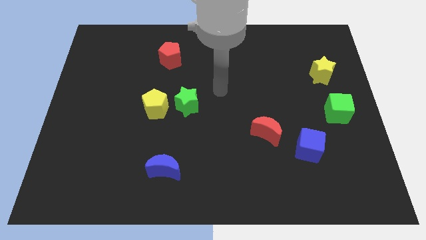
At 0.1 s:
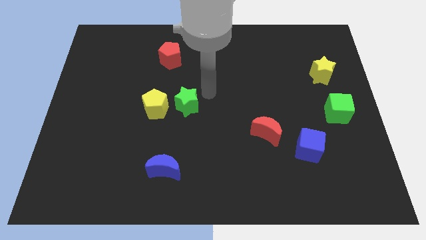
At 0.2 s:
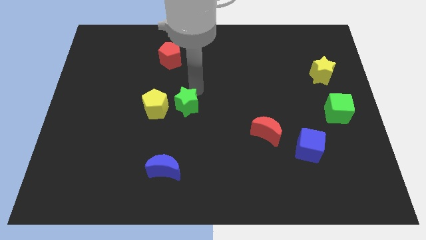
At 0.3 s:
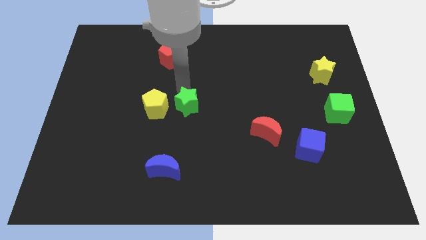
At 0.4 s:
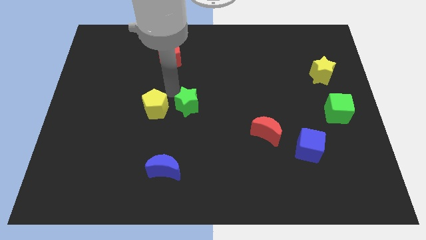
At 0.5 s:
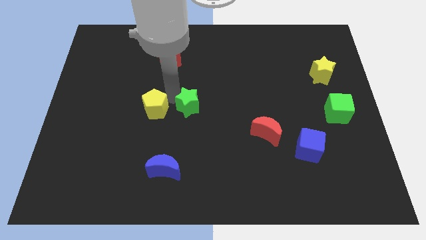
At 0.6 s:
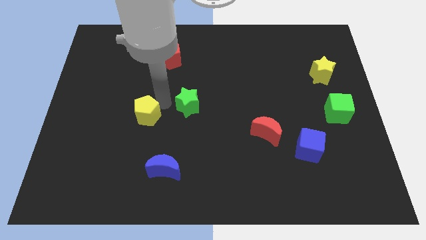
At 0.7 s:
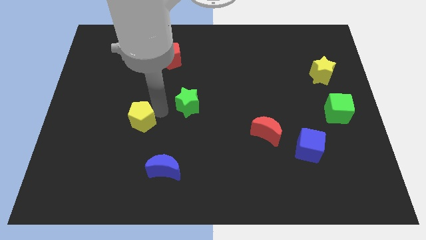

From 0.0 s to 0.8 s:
separate the green star from the yellow pentagon

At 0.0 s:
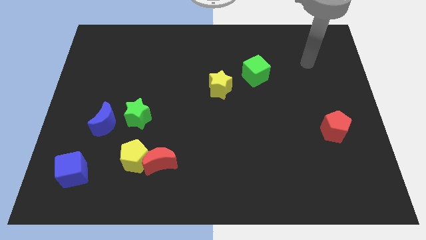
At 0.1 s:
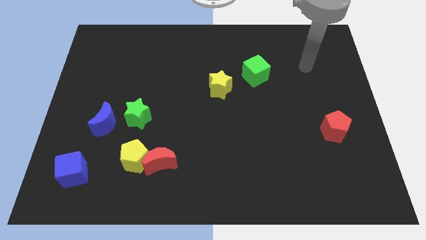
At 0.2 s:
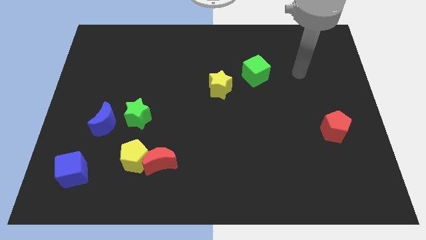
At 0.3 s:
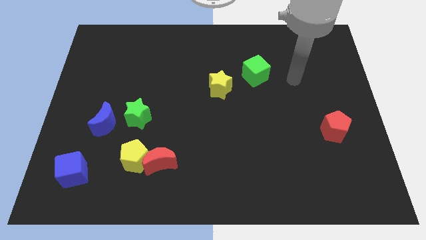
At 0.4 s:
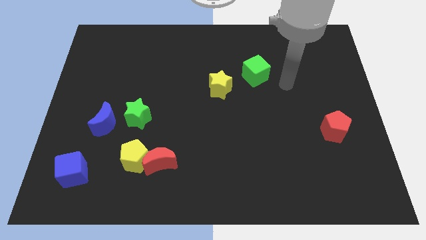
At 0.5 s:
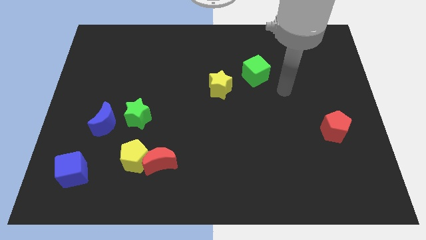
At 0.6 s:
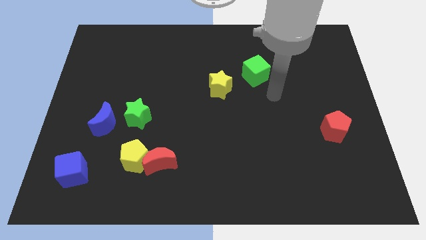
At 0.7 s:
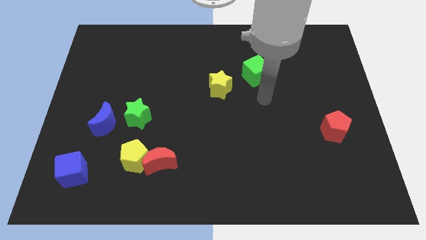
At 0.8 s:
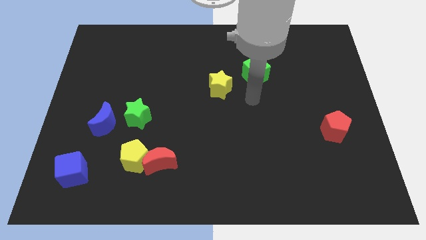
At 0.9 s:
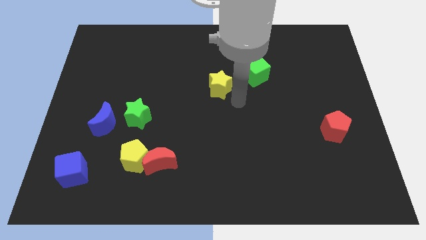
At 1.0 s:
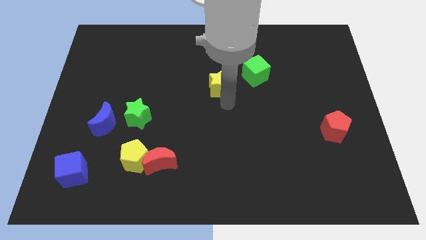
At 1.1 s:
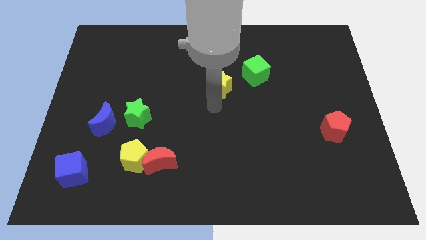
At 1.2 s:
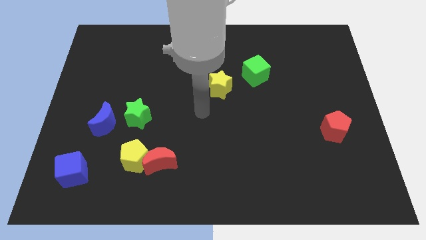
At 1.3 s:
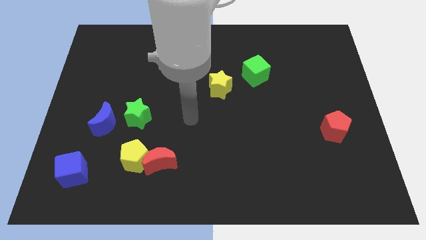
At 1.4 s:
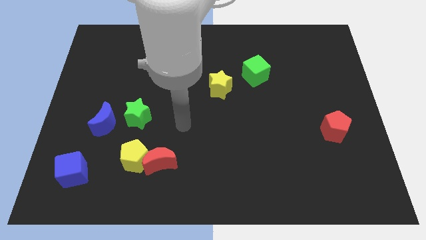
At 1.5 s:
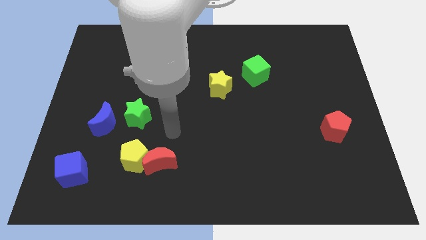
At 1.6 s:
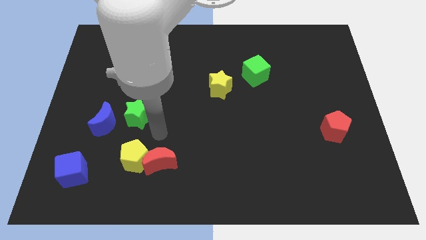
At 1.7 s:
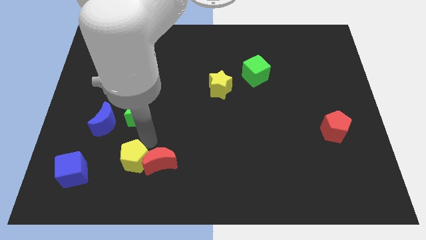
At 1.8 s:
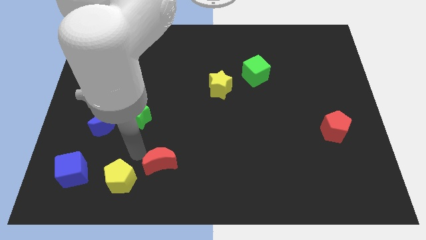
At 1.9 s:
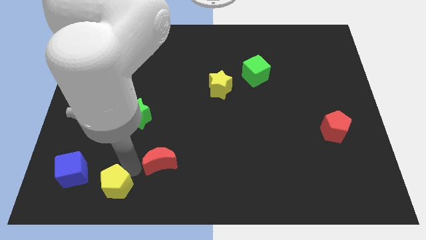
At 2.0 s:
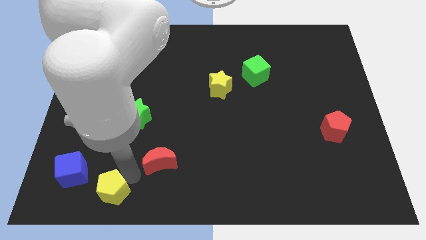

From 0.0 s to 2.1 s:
pull the red moon apart from the yellow pentagon

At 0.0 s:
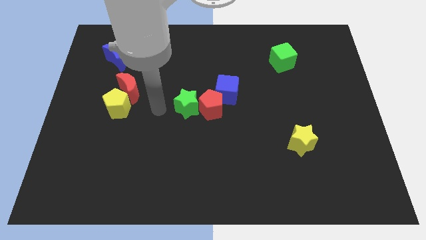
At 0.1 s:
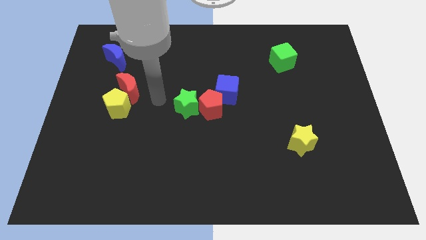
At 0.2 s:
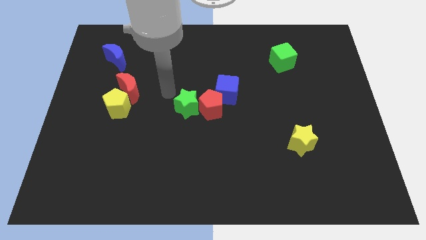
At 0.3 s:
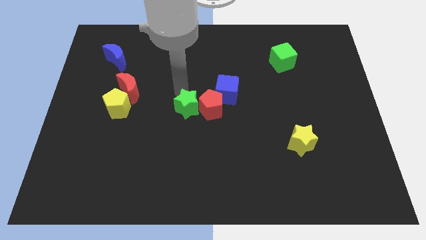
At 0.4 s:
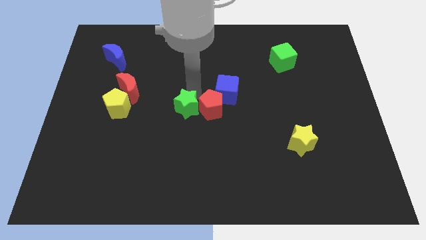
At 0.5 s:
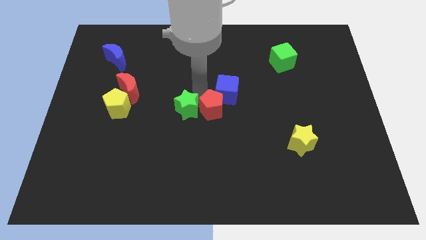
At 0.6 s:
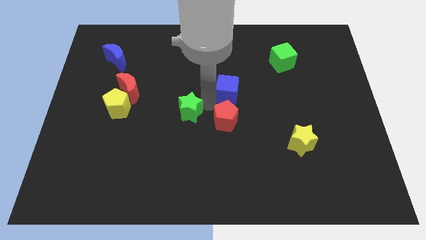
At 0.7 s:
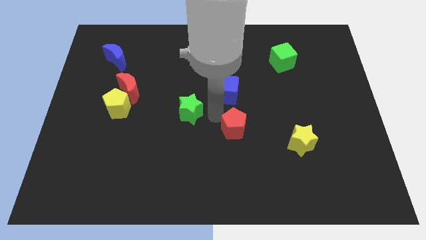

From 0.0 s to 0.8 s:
separate the green star from the red pentagon

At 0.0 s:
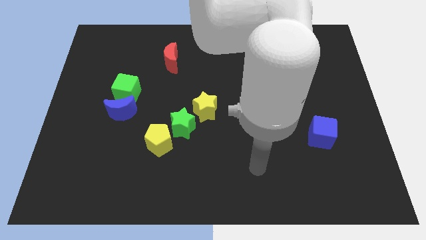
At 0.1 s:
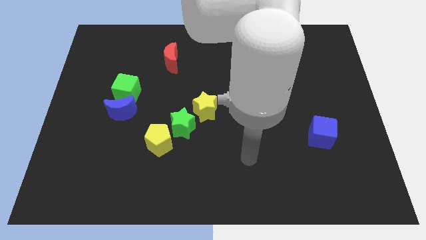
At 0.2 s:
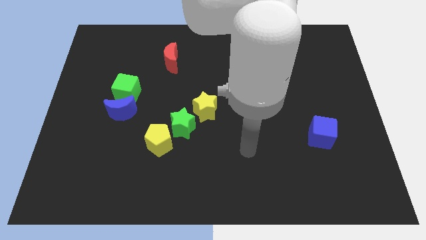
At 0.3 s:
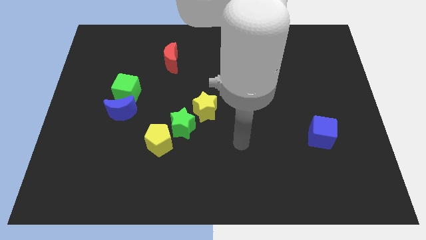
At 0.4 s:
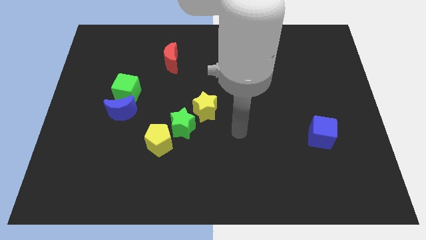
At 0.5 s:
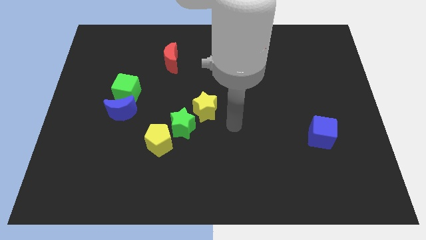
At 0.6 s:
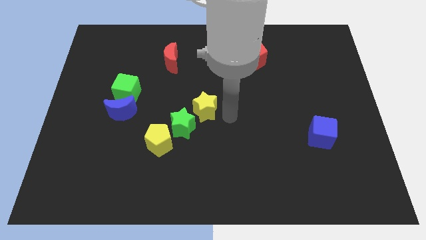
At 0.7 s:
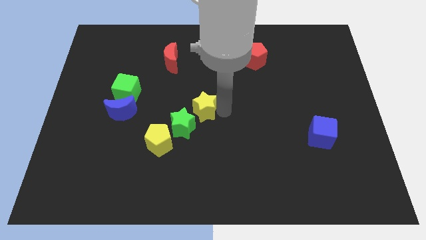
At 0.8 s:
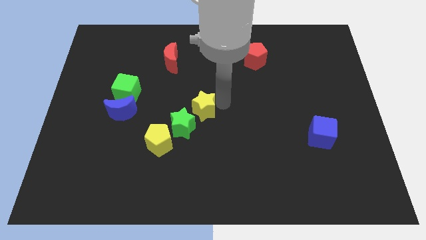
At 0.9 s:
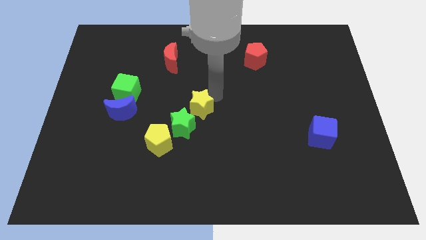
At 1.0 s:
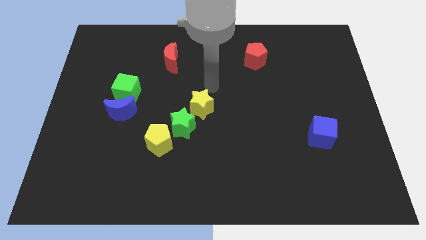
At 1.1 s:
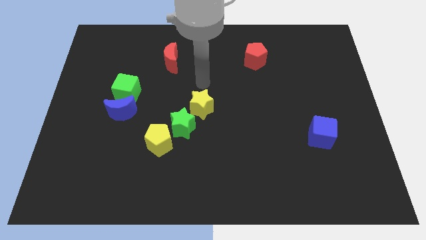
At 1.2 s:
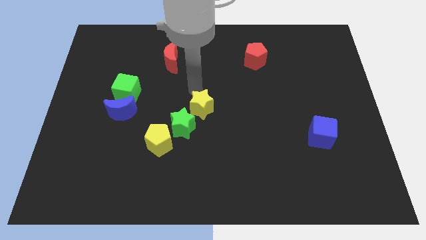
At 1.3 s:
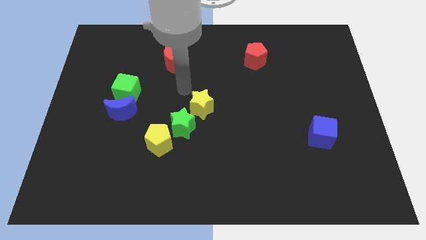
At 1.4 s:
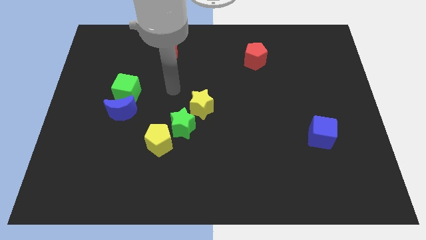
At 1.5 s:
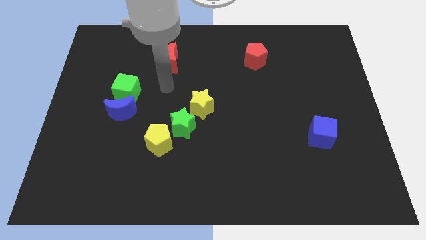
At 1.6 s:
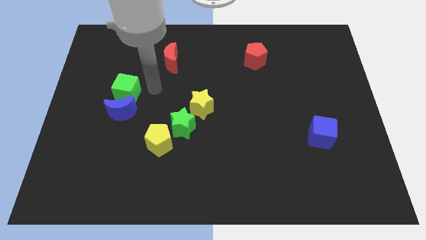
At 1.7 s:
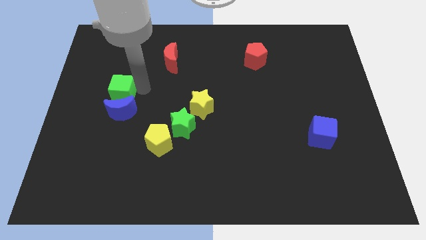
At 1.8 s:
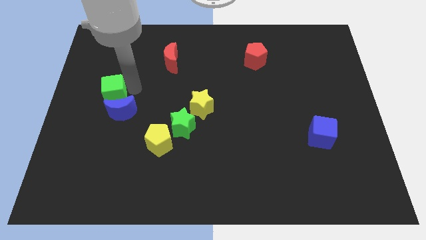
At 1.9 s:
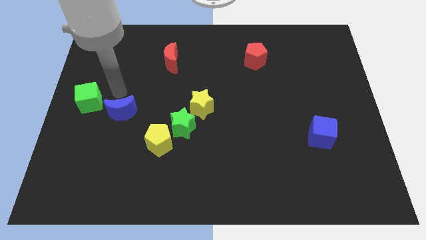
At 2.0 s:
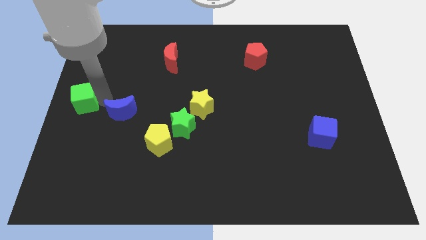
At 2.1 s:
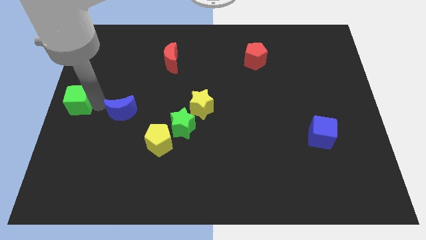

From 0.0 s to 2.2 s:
pull the blue moon apart from the green cube

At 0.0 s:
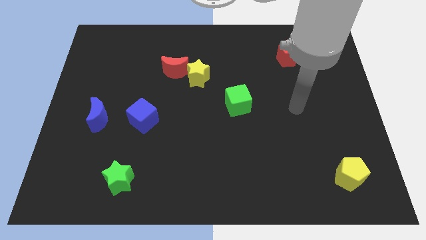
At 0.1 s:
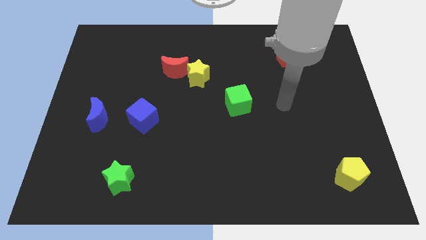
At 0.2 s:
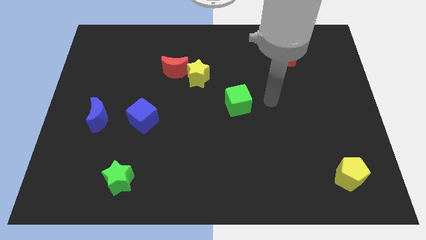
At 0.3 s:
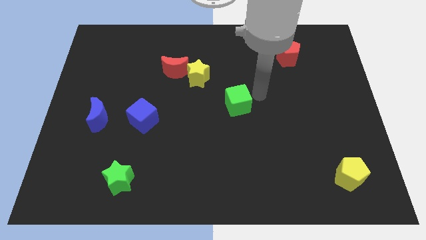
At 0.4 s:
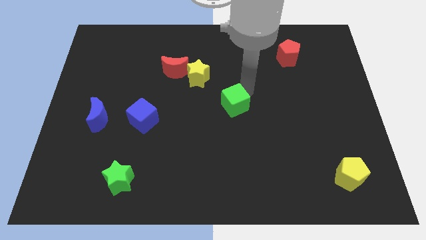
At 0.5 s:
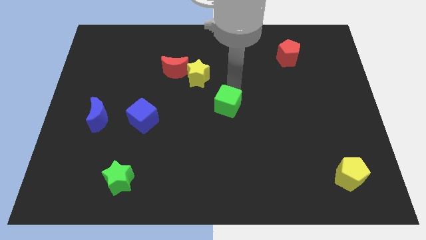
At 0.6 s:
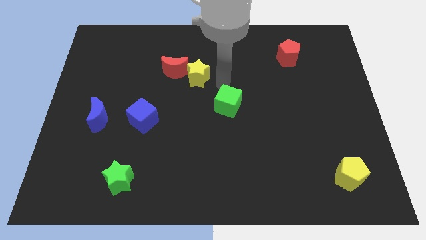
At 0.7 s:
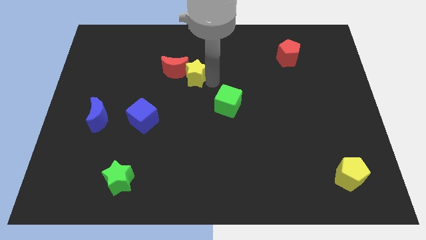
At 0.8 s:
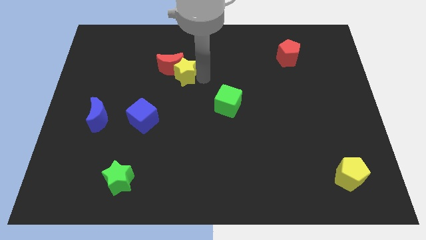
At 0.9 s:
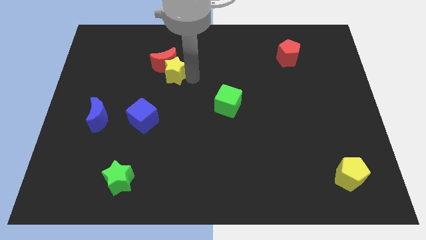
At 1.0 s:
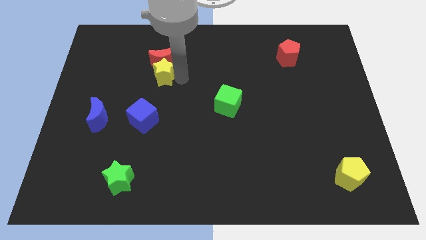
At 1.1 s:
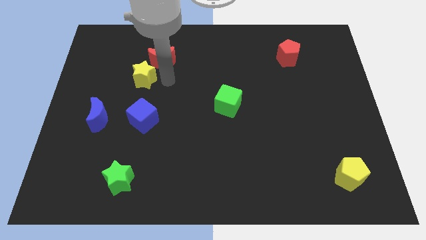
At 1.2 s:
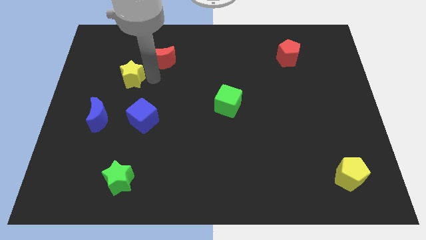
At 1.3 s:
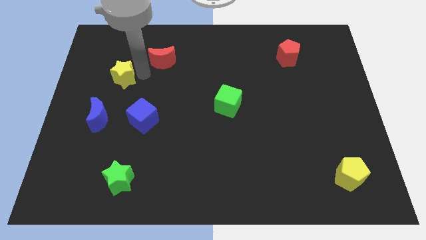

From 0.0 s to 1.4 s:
pull the red moon apart from the yellow star

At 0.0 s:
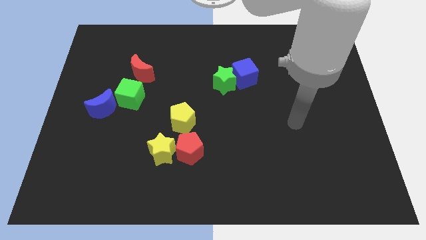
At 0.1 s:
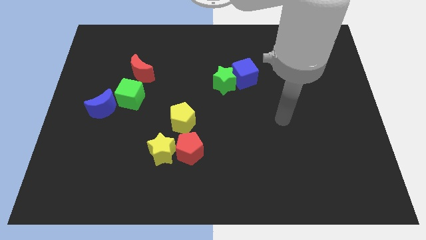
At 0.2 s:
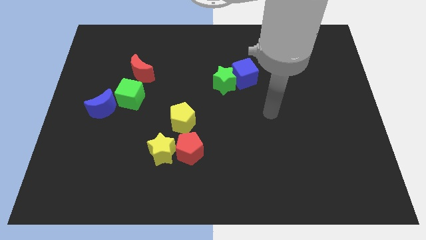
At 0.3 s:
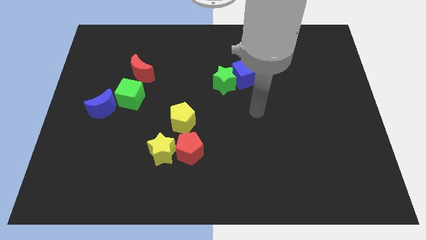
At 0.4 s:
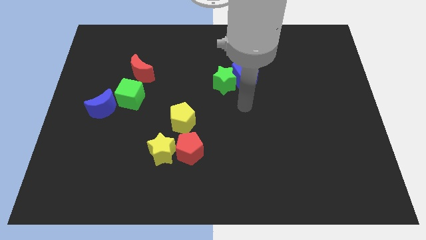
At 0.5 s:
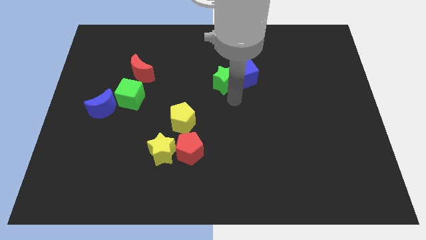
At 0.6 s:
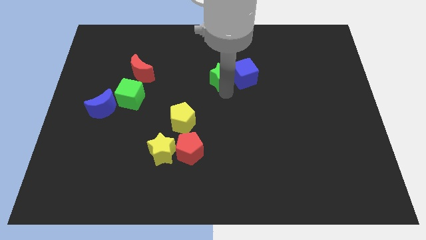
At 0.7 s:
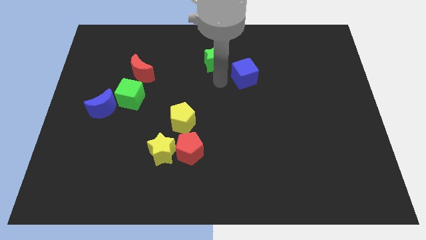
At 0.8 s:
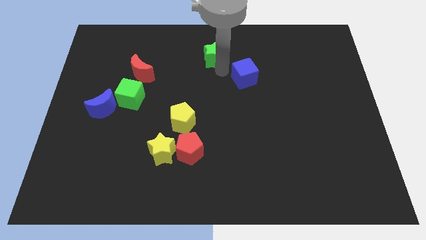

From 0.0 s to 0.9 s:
move the blue cube away from the green star

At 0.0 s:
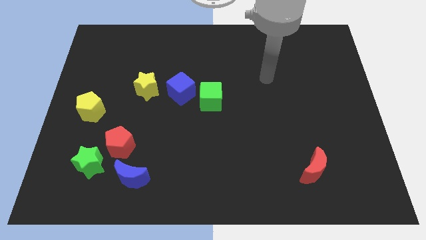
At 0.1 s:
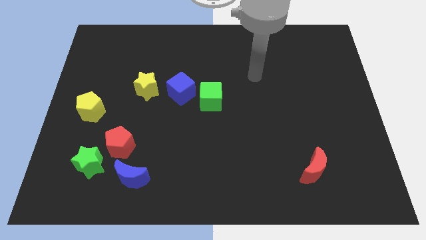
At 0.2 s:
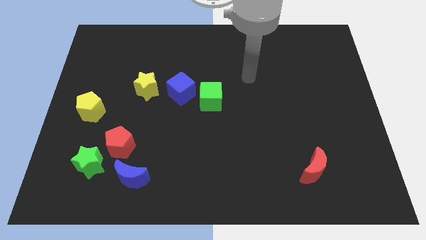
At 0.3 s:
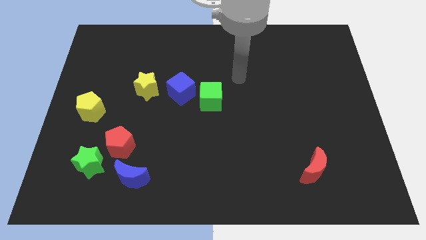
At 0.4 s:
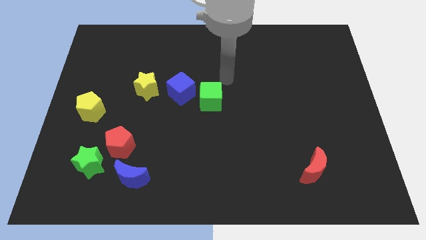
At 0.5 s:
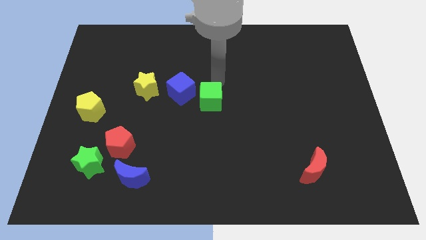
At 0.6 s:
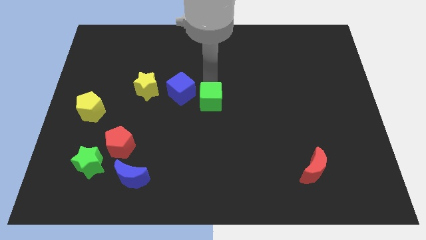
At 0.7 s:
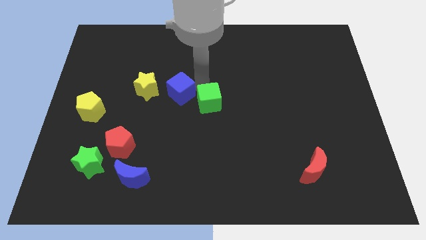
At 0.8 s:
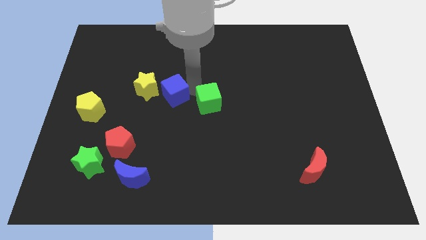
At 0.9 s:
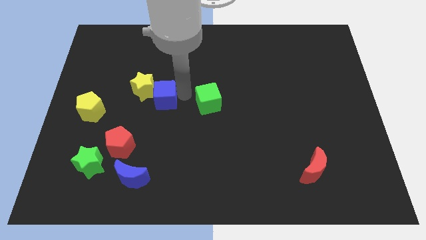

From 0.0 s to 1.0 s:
separate the green cube from the blue cube

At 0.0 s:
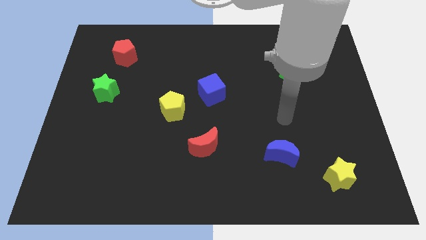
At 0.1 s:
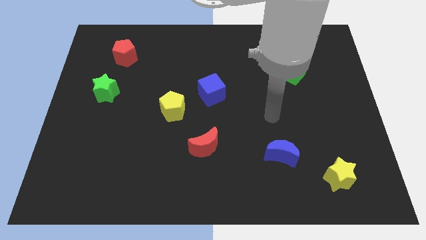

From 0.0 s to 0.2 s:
separate the blue cube from the yellow pentagon
